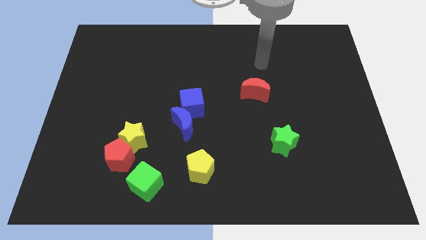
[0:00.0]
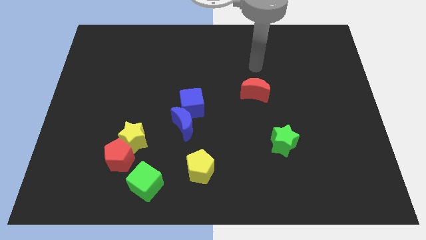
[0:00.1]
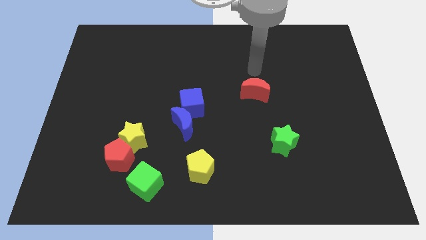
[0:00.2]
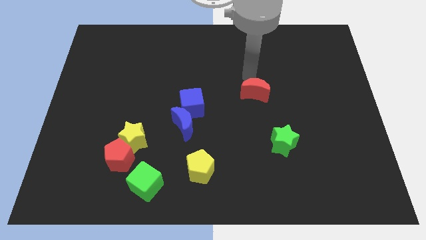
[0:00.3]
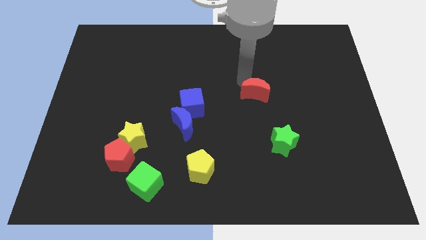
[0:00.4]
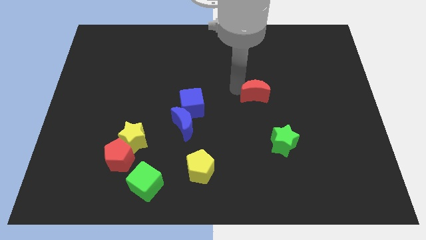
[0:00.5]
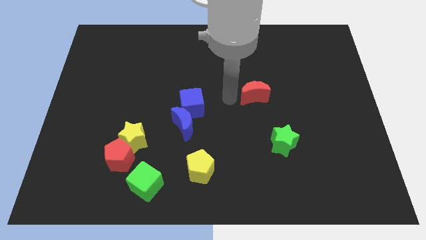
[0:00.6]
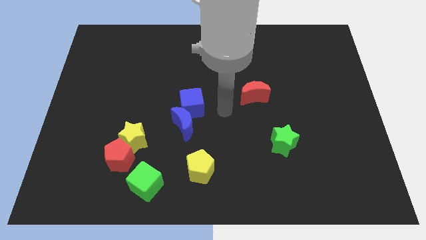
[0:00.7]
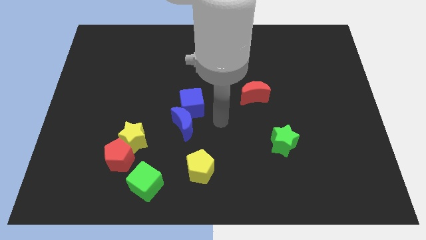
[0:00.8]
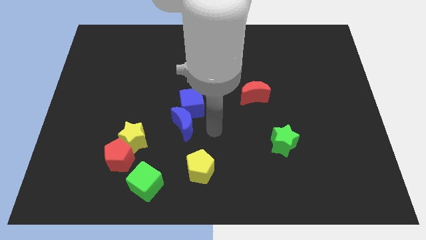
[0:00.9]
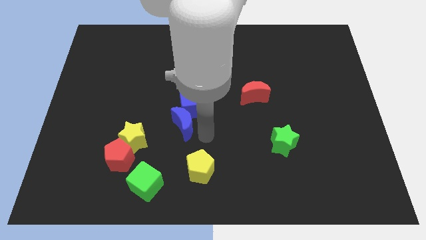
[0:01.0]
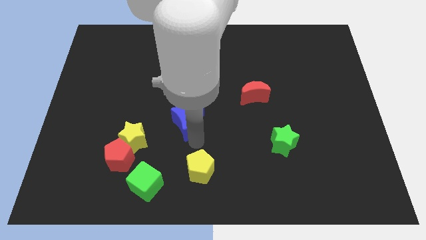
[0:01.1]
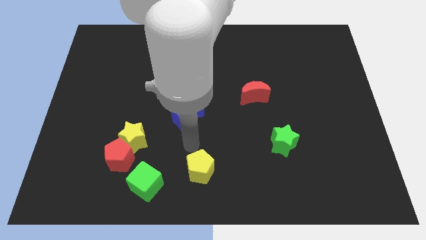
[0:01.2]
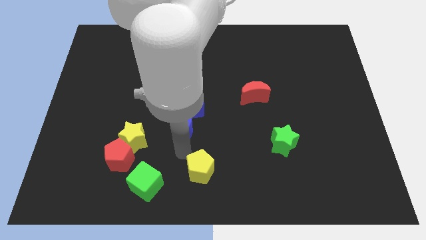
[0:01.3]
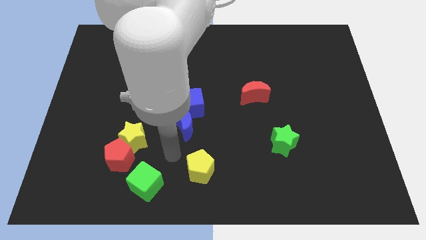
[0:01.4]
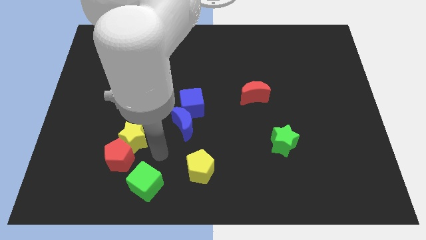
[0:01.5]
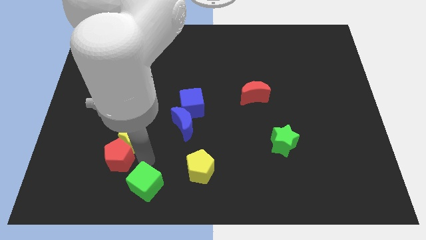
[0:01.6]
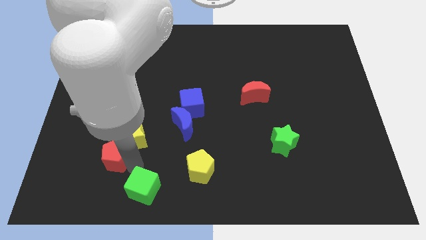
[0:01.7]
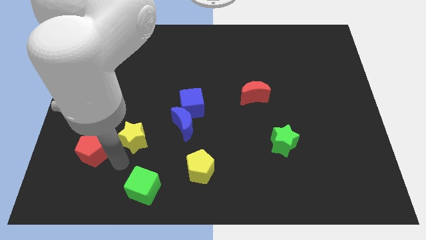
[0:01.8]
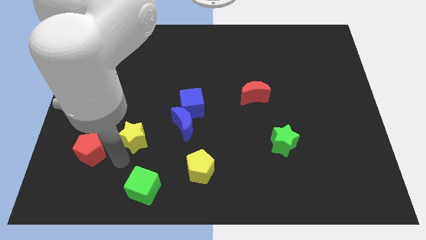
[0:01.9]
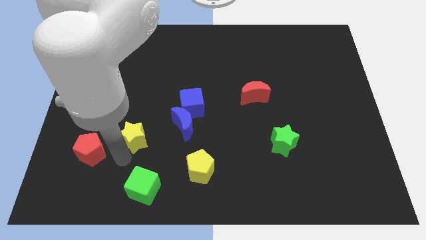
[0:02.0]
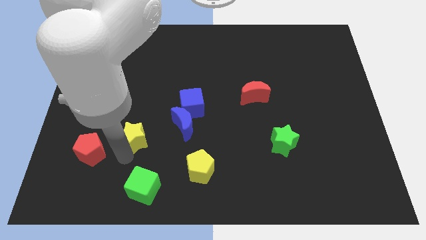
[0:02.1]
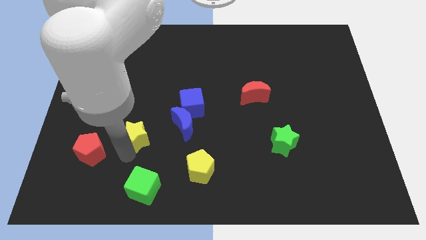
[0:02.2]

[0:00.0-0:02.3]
separate the yellow star from the red pentagon

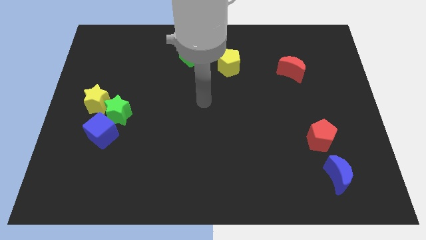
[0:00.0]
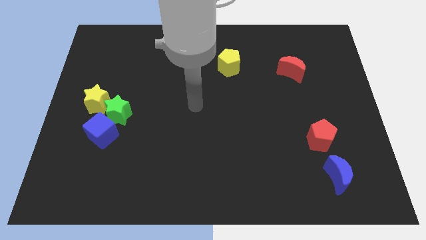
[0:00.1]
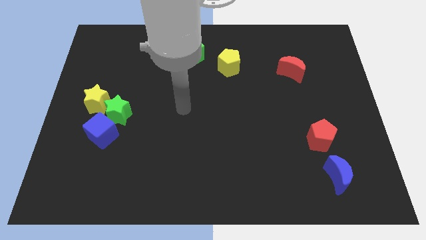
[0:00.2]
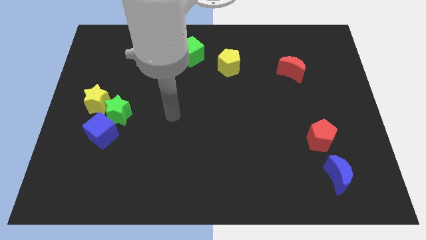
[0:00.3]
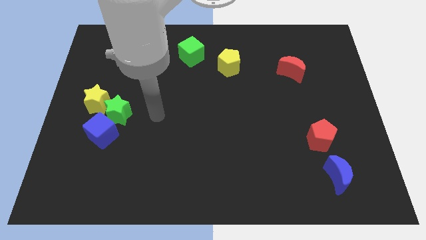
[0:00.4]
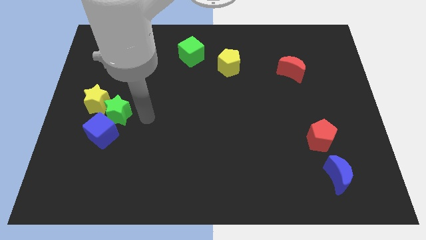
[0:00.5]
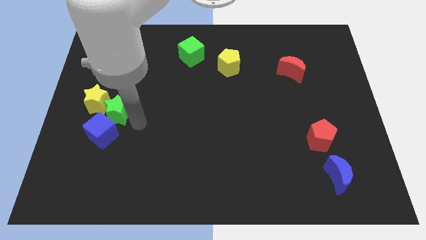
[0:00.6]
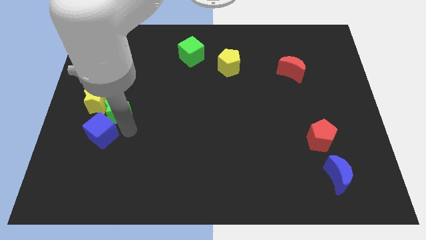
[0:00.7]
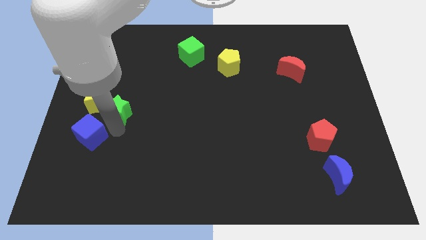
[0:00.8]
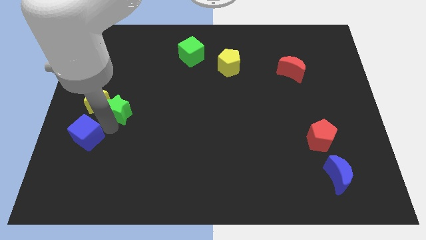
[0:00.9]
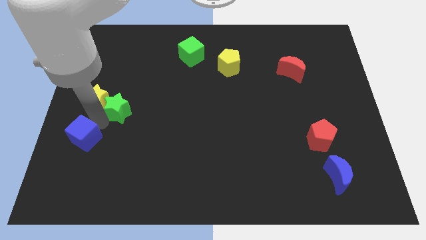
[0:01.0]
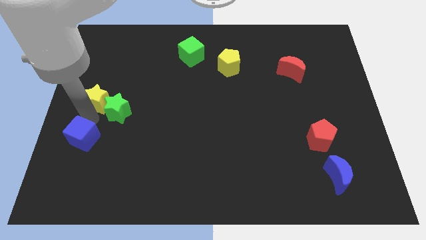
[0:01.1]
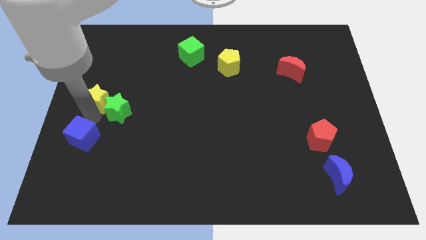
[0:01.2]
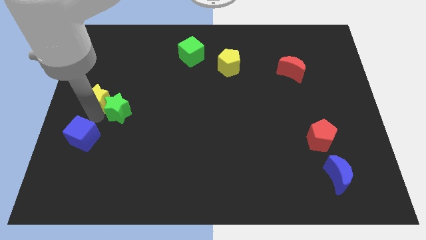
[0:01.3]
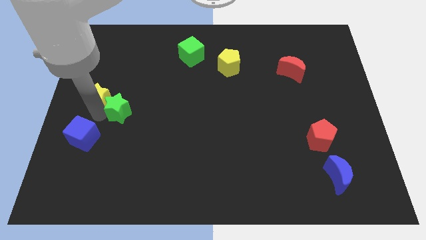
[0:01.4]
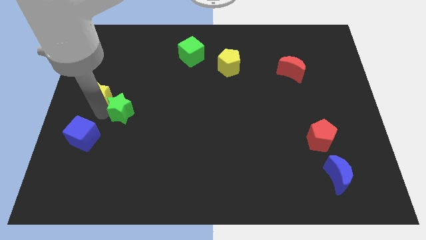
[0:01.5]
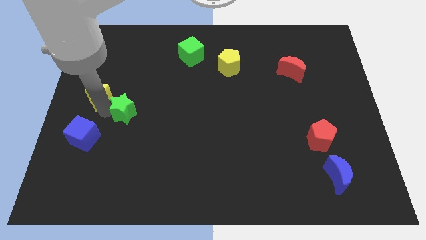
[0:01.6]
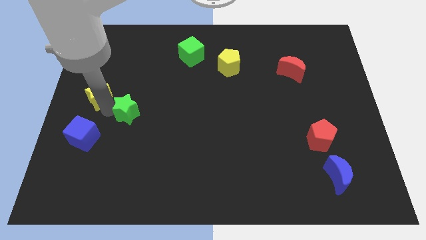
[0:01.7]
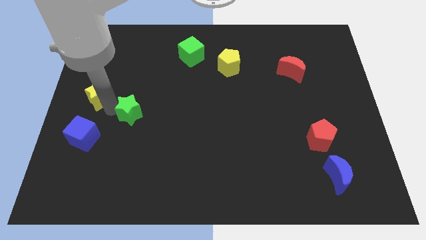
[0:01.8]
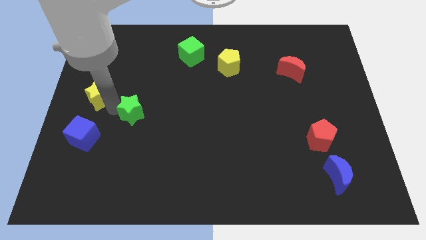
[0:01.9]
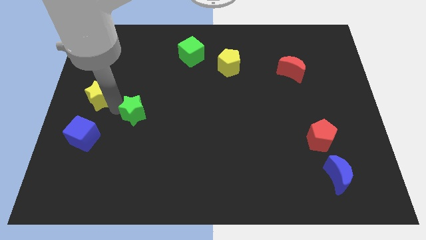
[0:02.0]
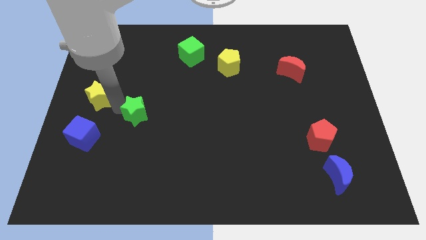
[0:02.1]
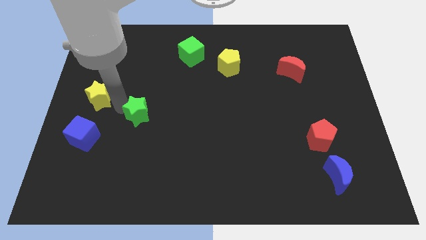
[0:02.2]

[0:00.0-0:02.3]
pull the green star apart from the blue cube and yellow star

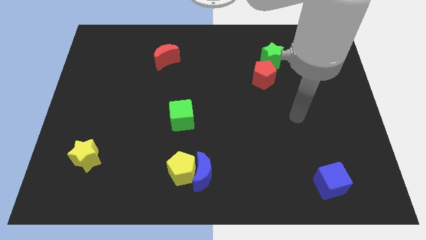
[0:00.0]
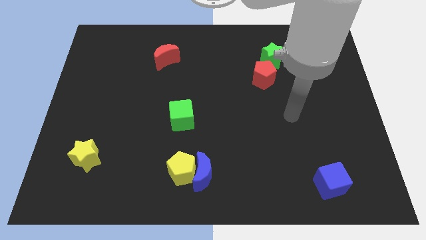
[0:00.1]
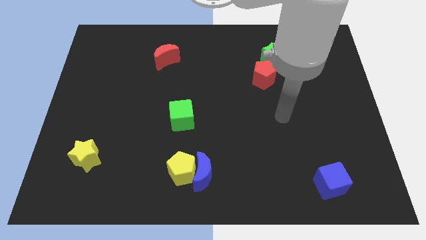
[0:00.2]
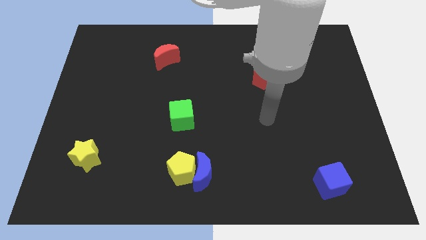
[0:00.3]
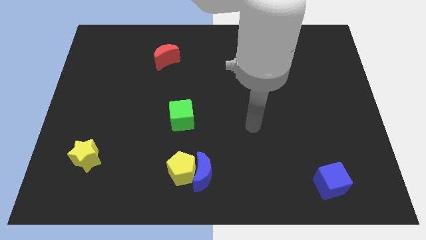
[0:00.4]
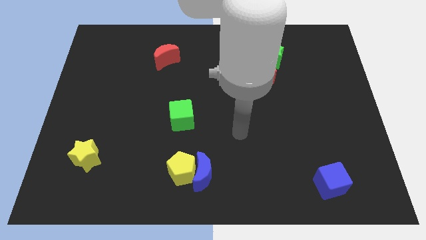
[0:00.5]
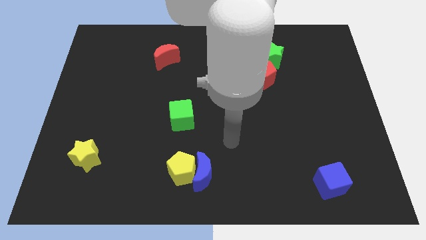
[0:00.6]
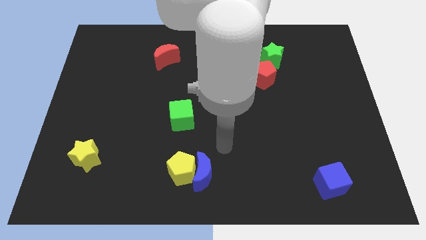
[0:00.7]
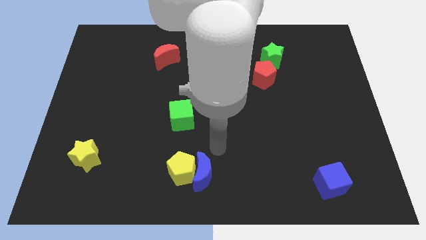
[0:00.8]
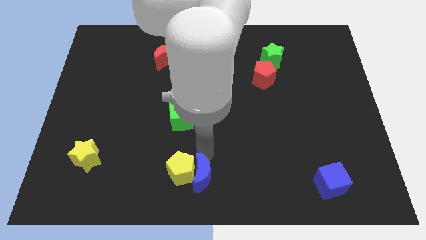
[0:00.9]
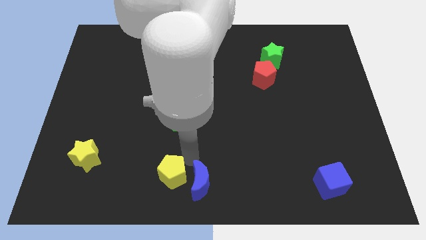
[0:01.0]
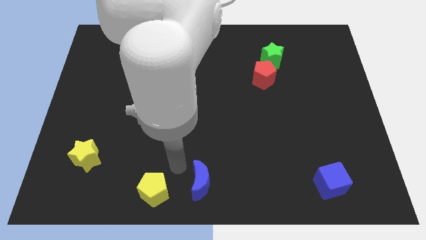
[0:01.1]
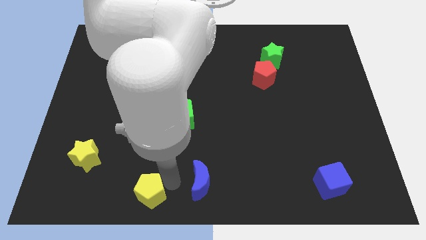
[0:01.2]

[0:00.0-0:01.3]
separate the blue moon from the yellow pentagon

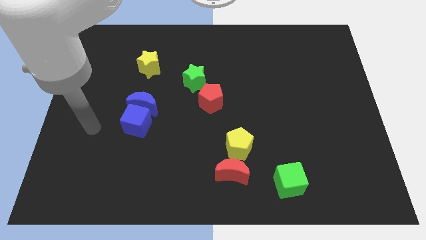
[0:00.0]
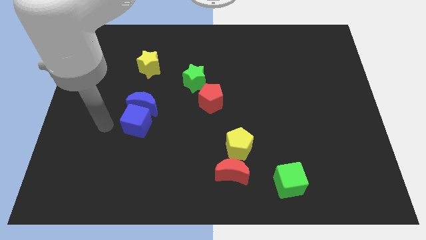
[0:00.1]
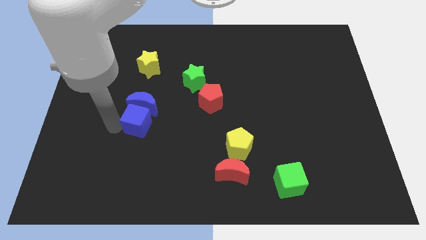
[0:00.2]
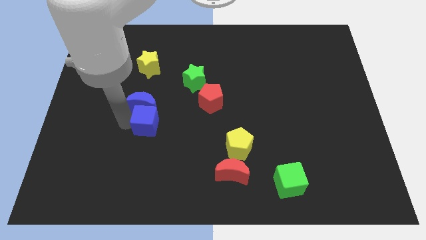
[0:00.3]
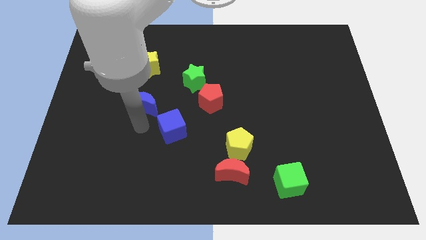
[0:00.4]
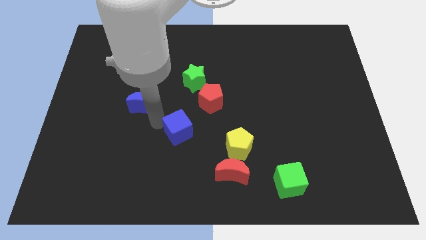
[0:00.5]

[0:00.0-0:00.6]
pull the blue moon apart from the blue cube

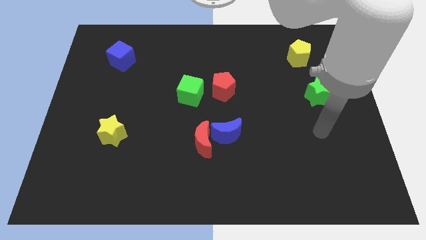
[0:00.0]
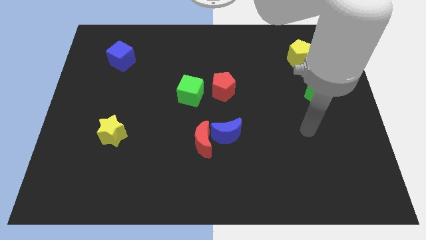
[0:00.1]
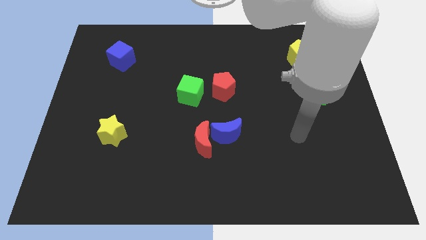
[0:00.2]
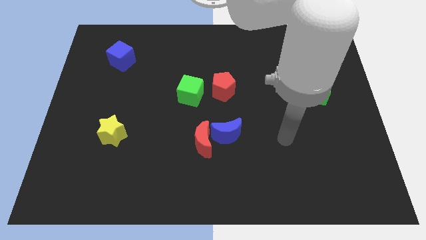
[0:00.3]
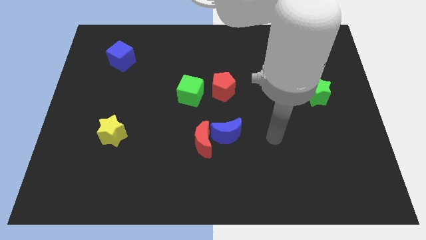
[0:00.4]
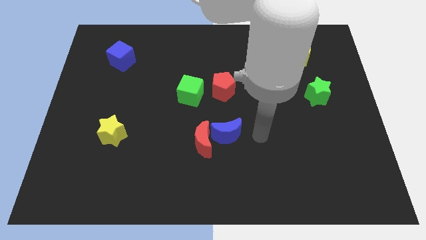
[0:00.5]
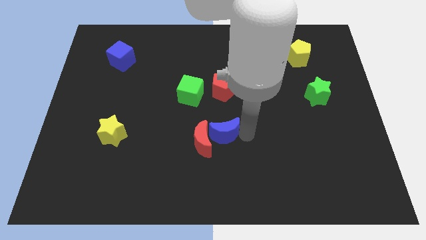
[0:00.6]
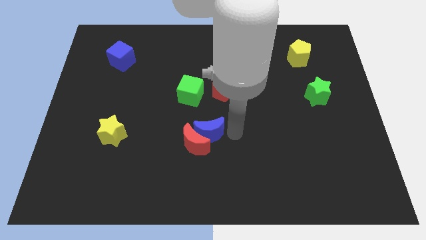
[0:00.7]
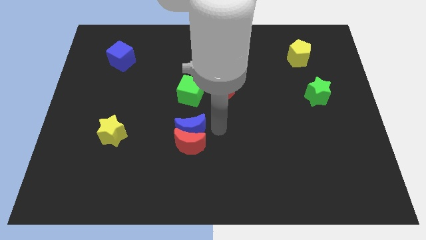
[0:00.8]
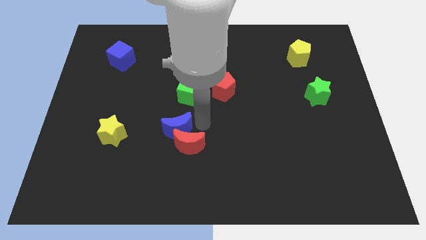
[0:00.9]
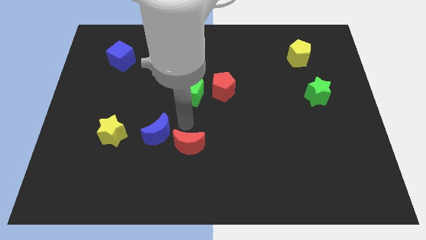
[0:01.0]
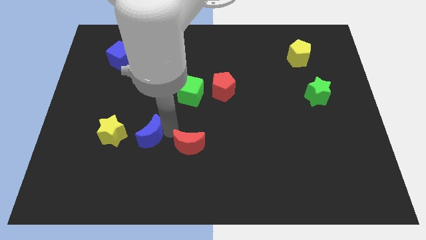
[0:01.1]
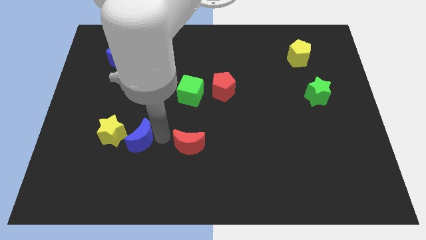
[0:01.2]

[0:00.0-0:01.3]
separate the red moon from the blue moon

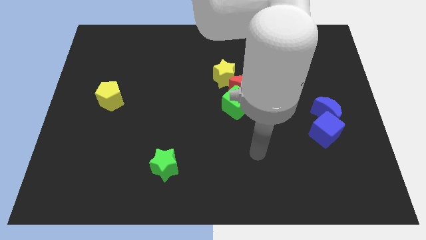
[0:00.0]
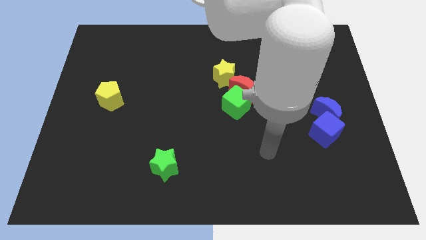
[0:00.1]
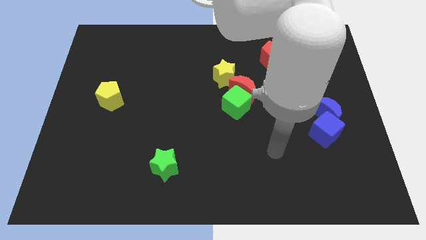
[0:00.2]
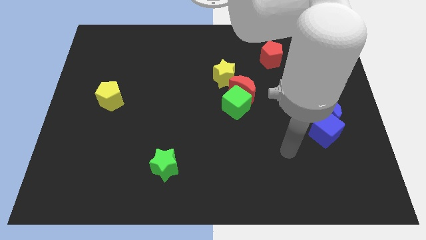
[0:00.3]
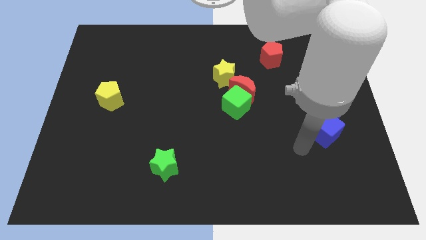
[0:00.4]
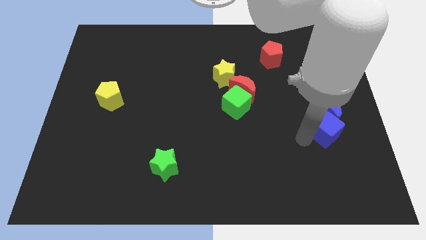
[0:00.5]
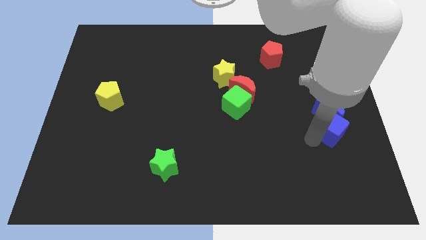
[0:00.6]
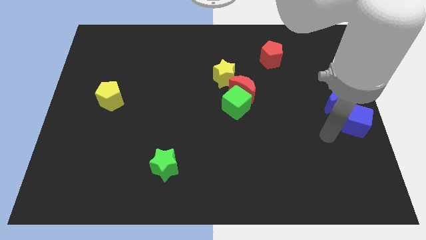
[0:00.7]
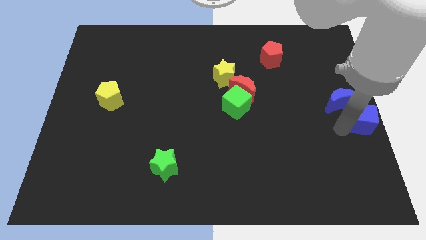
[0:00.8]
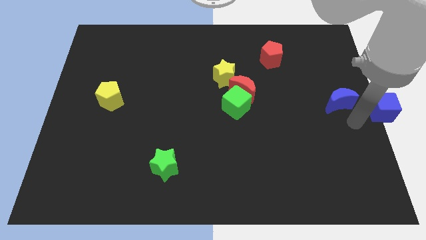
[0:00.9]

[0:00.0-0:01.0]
separate the blue moon from the blue cube

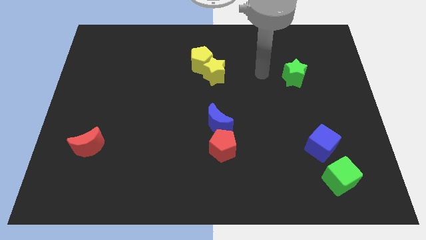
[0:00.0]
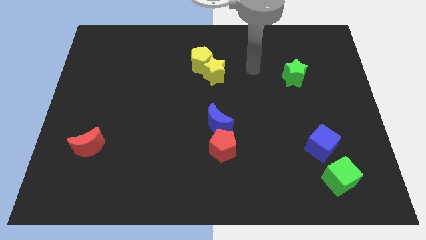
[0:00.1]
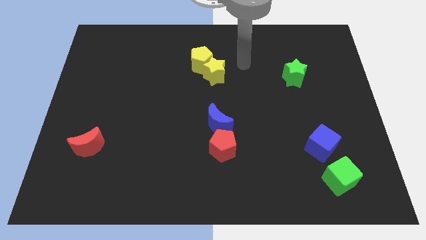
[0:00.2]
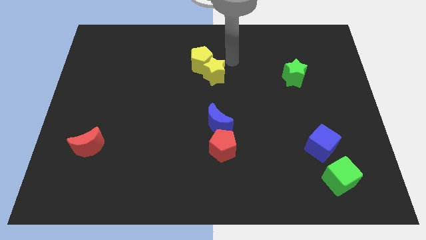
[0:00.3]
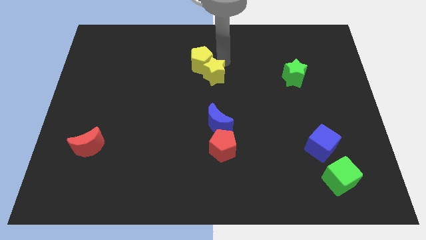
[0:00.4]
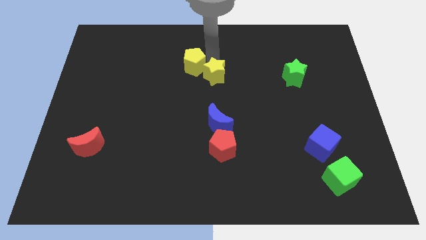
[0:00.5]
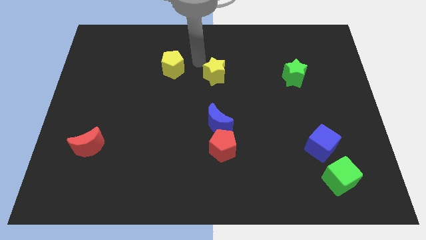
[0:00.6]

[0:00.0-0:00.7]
move the yellow star away from the yellow pentagon
